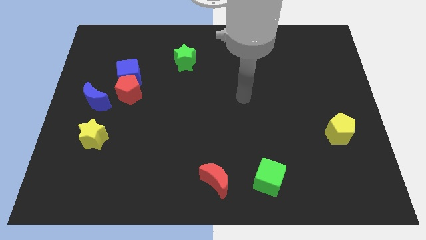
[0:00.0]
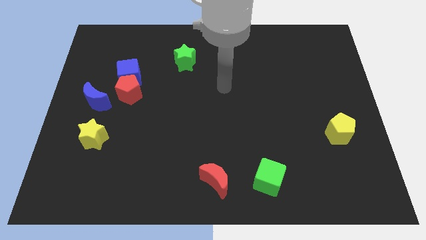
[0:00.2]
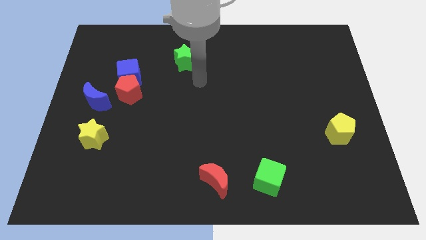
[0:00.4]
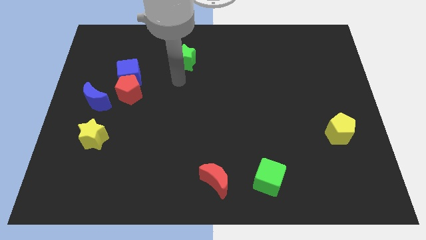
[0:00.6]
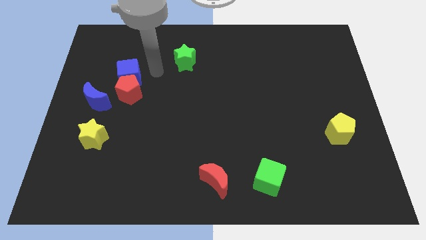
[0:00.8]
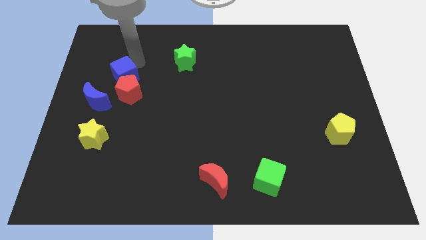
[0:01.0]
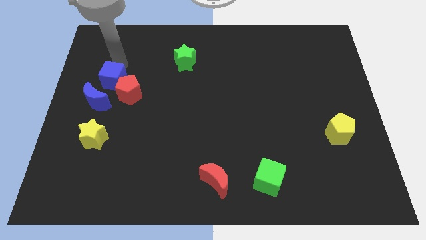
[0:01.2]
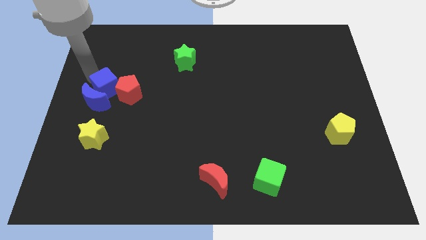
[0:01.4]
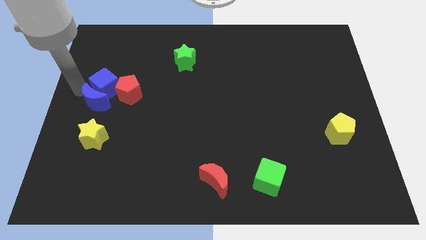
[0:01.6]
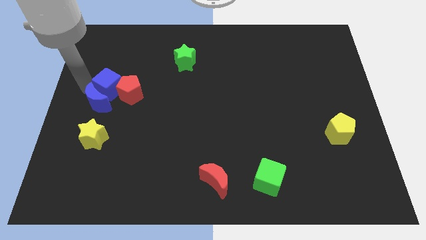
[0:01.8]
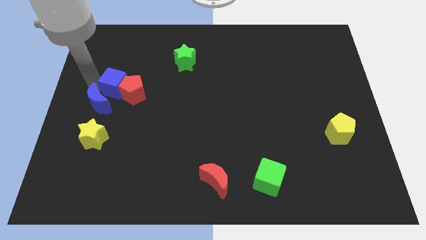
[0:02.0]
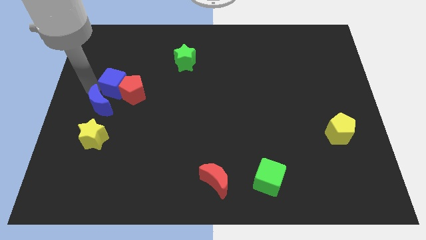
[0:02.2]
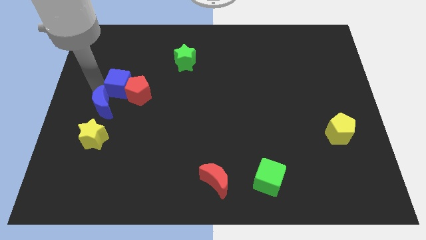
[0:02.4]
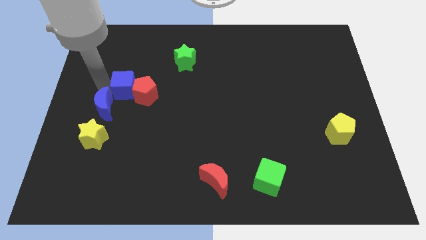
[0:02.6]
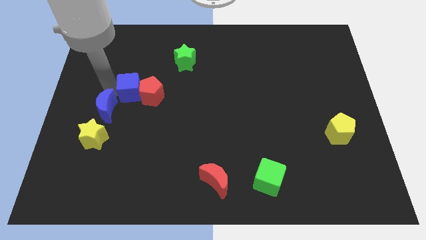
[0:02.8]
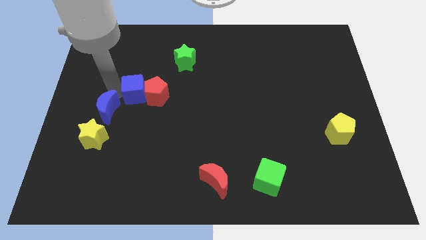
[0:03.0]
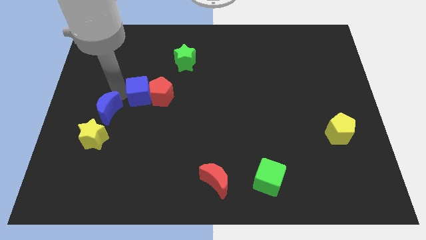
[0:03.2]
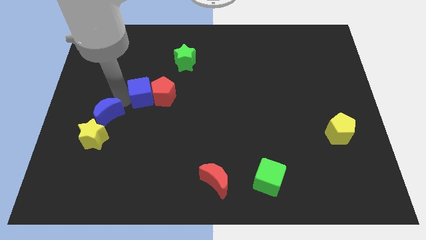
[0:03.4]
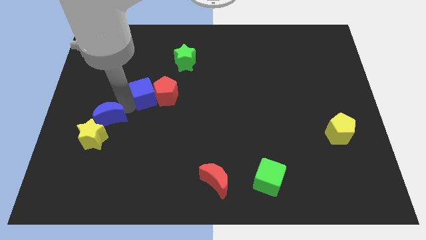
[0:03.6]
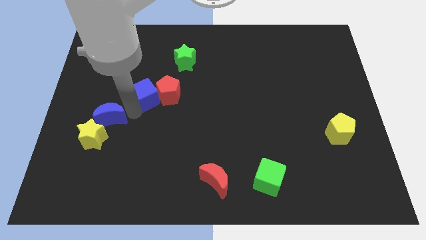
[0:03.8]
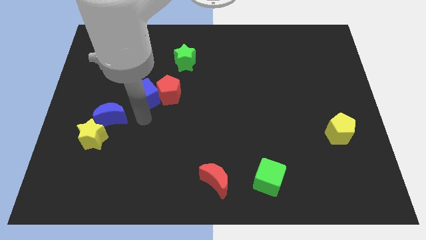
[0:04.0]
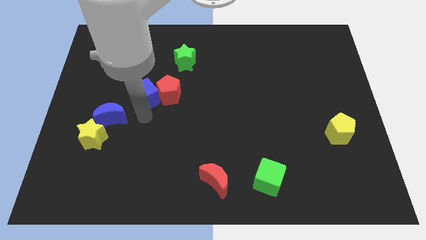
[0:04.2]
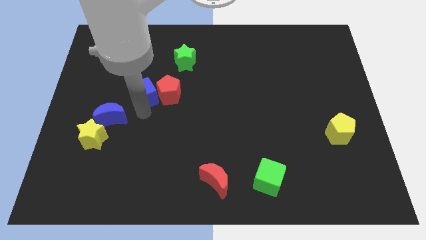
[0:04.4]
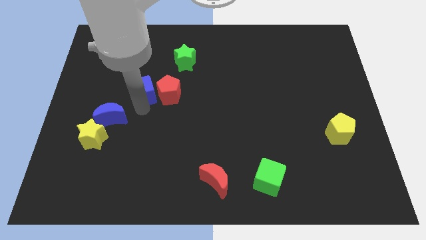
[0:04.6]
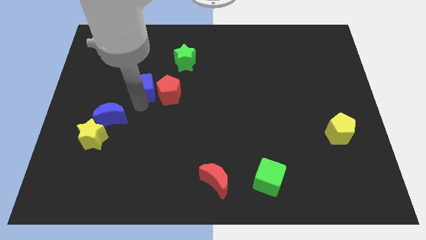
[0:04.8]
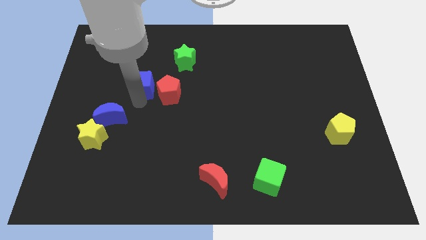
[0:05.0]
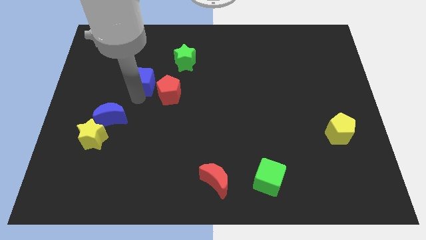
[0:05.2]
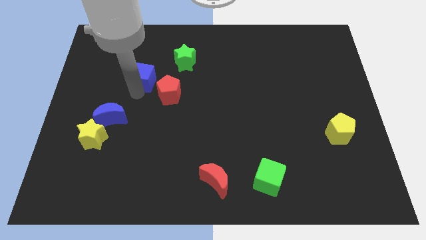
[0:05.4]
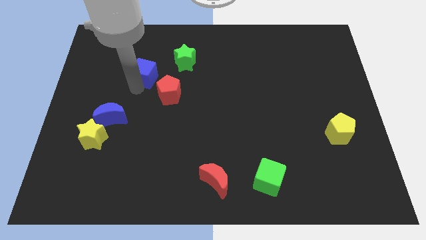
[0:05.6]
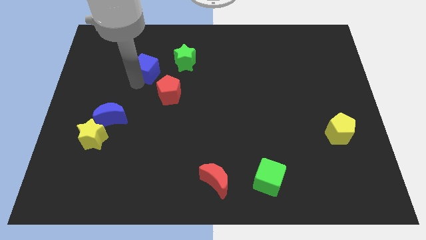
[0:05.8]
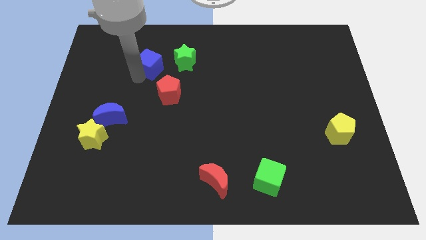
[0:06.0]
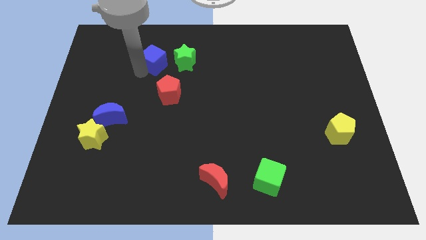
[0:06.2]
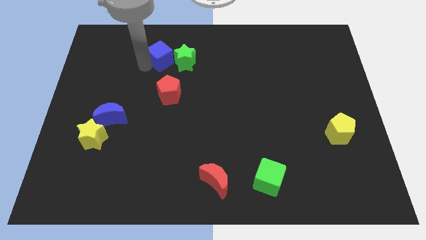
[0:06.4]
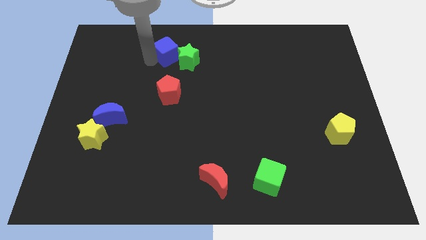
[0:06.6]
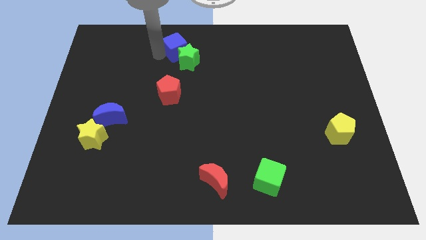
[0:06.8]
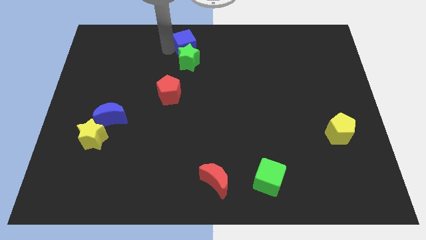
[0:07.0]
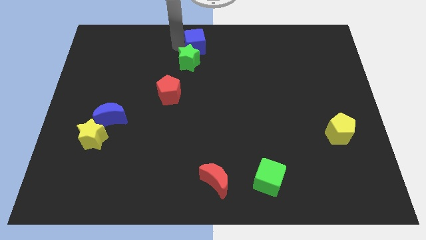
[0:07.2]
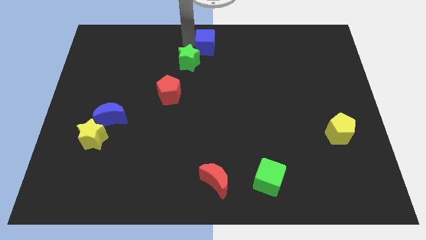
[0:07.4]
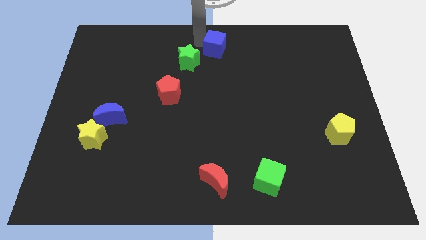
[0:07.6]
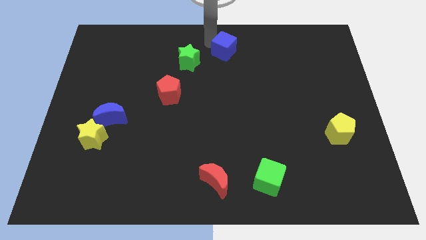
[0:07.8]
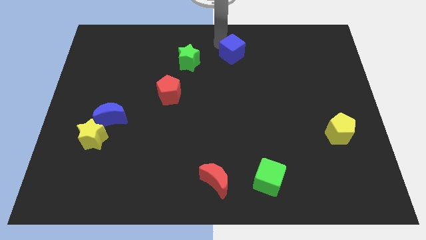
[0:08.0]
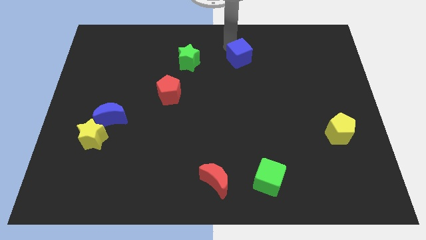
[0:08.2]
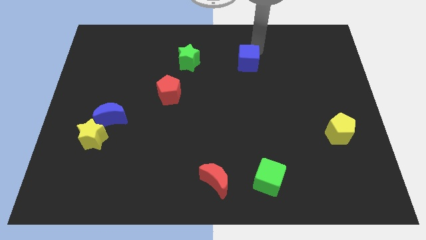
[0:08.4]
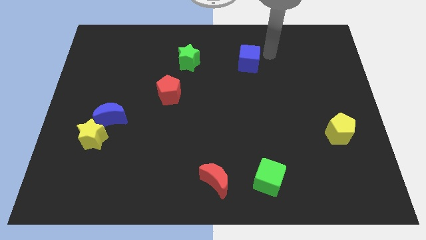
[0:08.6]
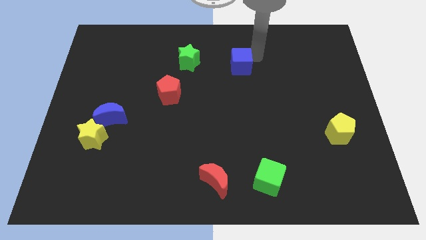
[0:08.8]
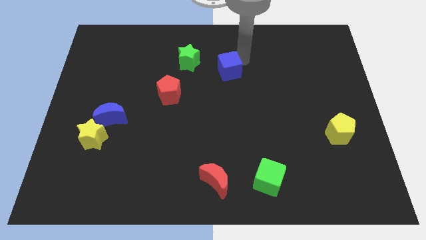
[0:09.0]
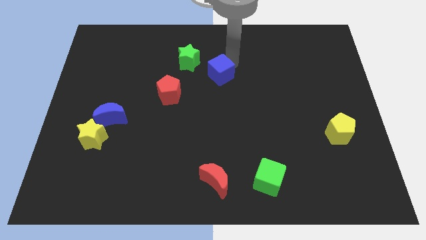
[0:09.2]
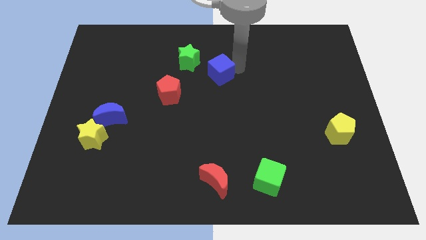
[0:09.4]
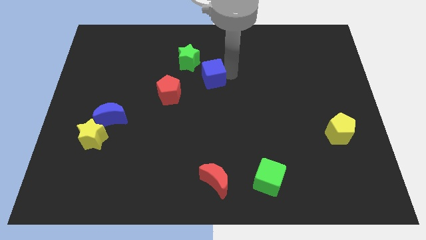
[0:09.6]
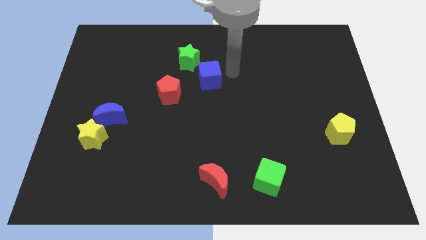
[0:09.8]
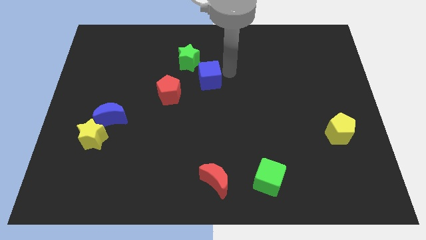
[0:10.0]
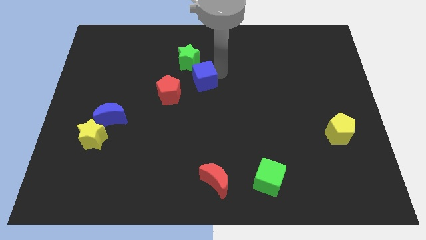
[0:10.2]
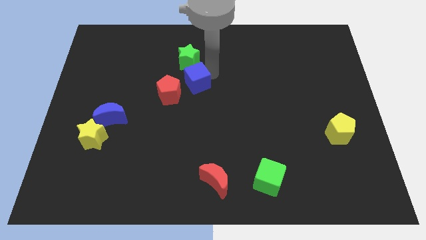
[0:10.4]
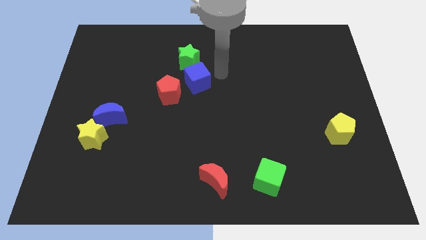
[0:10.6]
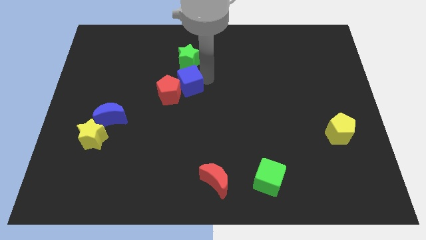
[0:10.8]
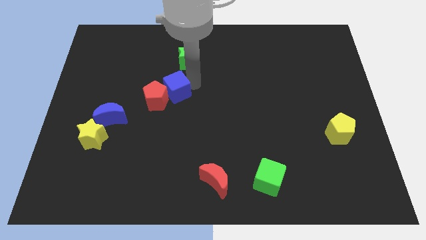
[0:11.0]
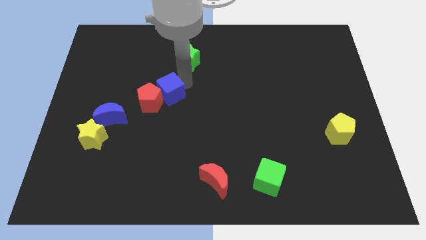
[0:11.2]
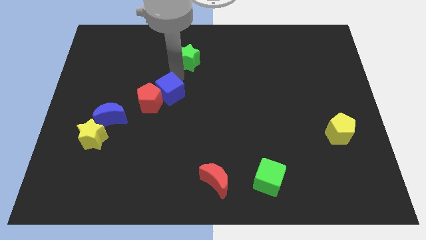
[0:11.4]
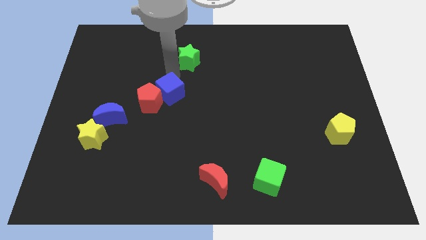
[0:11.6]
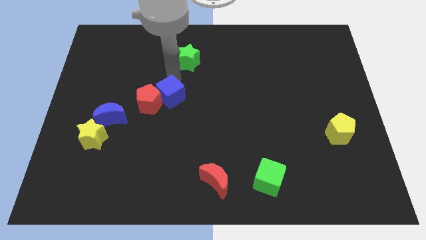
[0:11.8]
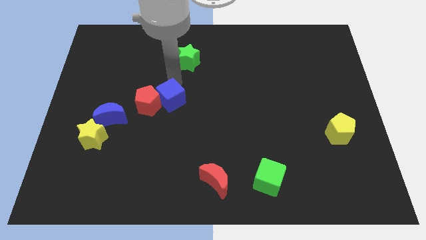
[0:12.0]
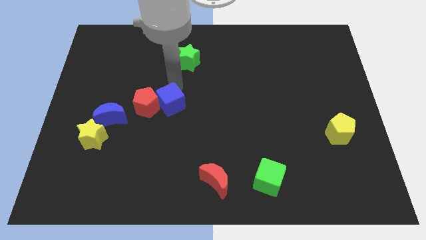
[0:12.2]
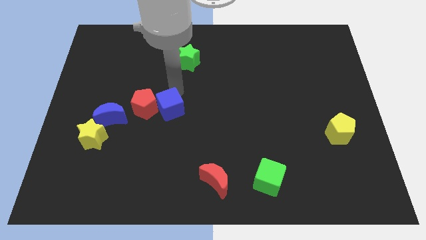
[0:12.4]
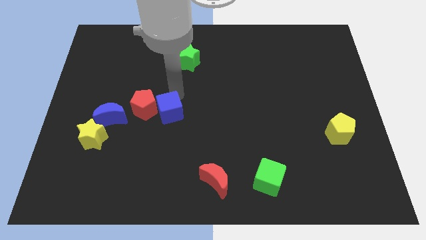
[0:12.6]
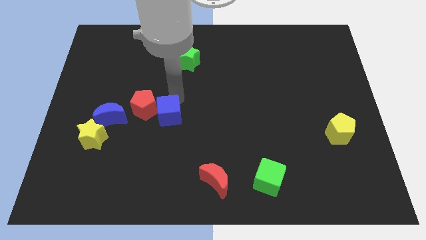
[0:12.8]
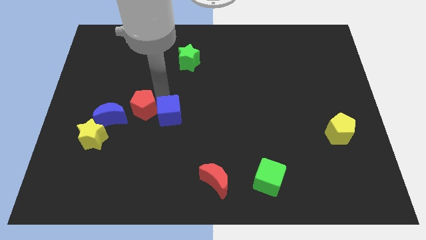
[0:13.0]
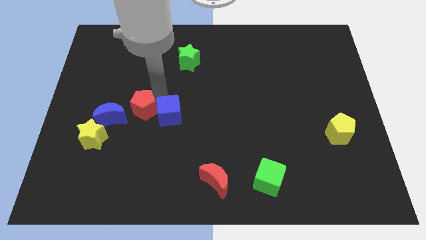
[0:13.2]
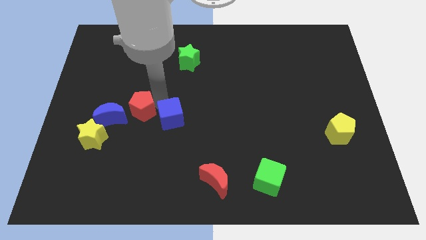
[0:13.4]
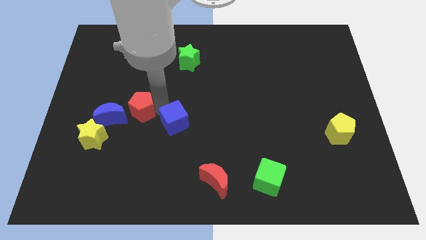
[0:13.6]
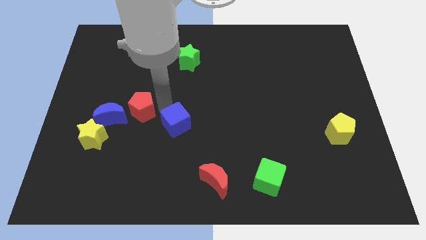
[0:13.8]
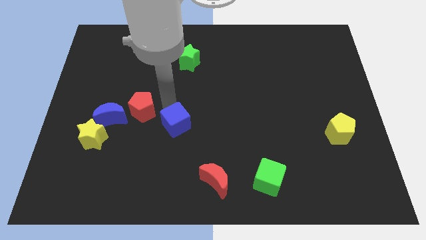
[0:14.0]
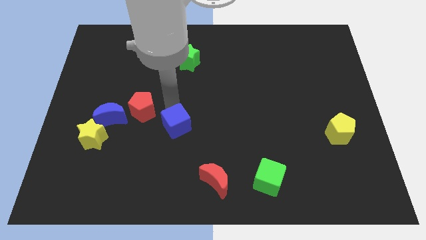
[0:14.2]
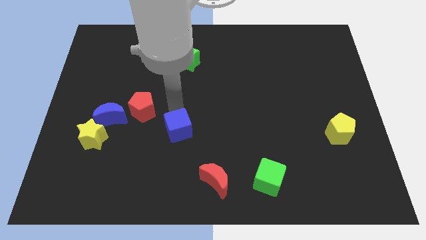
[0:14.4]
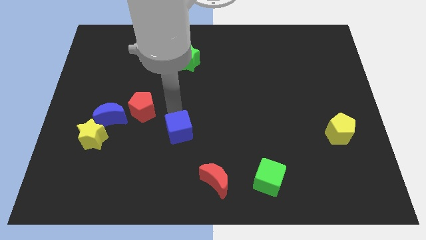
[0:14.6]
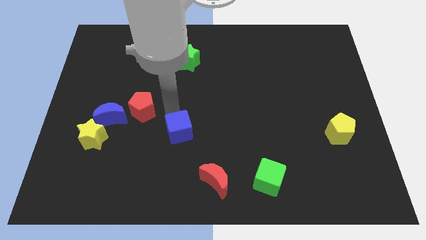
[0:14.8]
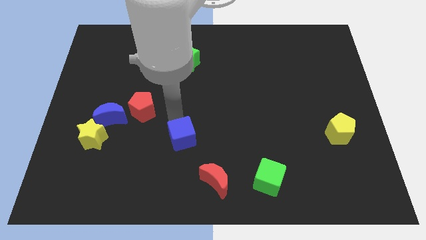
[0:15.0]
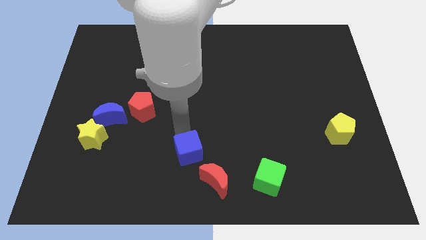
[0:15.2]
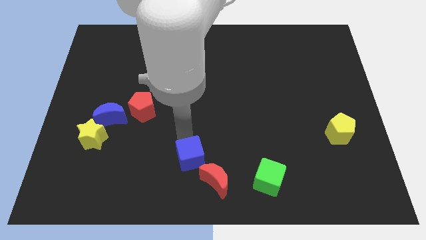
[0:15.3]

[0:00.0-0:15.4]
slide the blue cube to the bottom side
